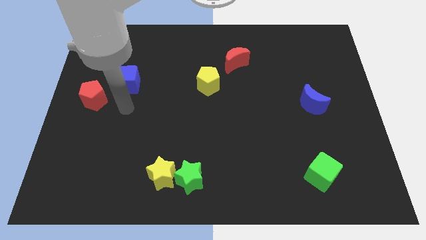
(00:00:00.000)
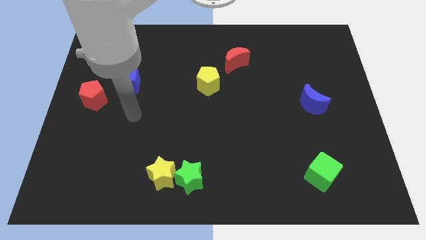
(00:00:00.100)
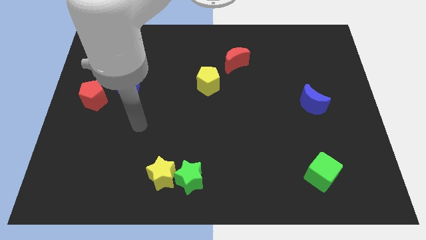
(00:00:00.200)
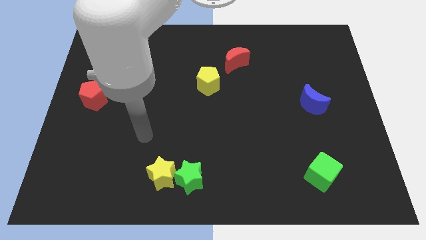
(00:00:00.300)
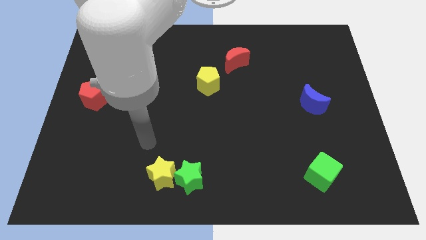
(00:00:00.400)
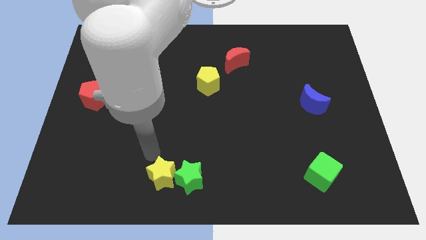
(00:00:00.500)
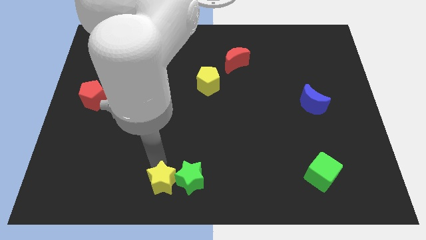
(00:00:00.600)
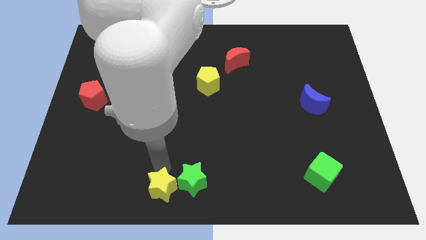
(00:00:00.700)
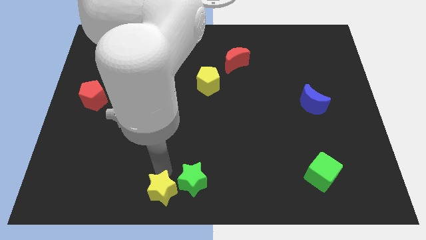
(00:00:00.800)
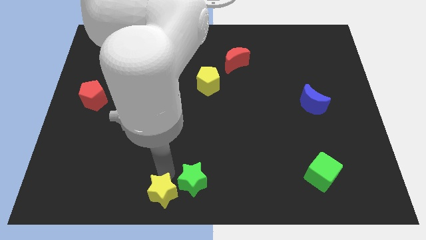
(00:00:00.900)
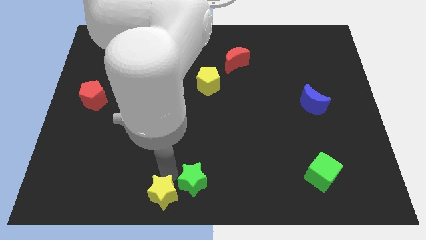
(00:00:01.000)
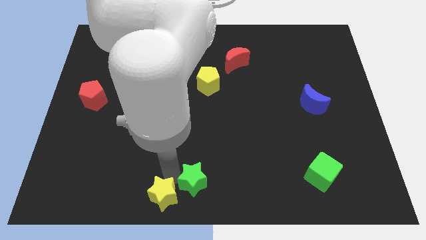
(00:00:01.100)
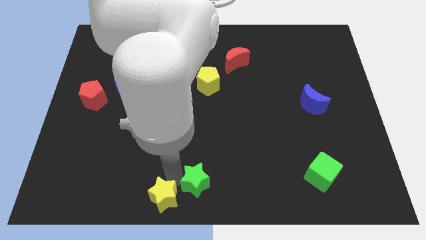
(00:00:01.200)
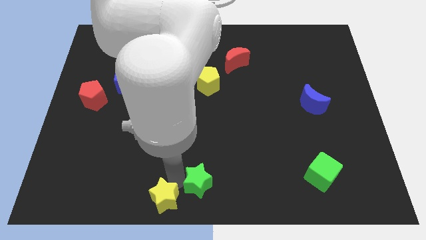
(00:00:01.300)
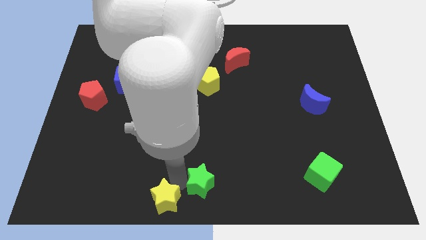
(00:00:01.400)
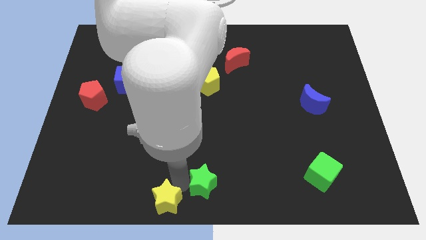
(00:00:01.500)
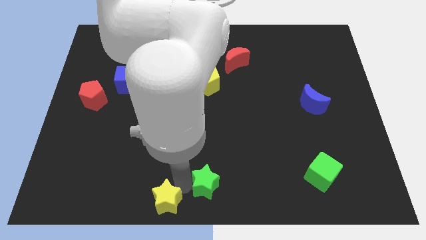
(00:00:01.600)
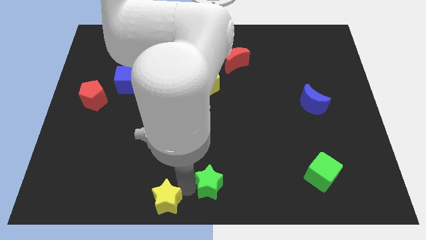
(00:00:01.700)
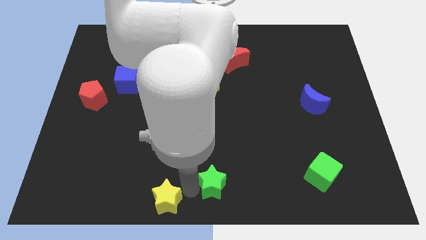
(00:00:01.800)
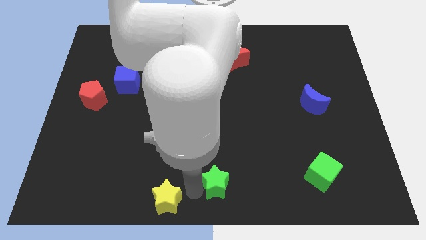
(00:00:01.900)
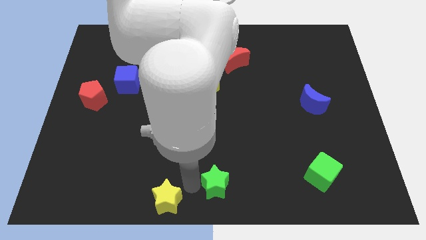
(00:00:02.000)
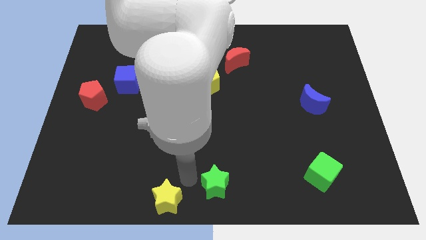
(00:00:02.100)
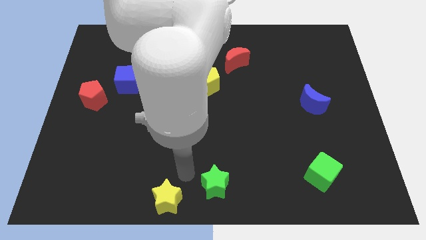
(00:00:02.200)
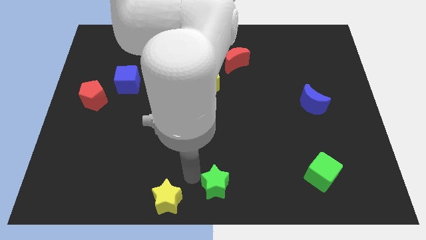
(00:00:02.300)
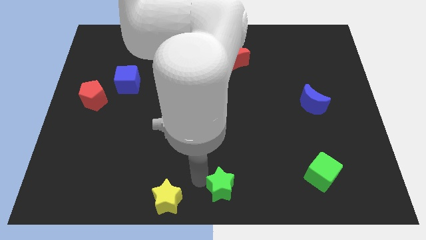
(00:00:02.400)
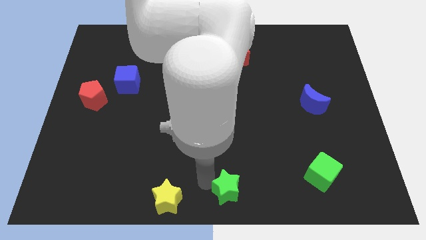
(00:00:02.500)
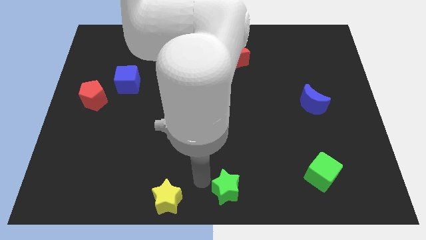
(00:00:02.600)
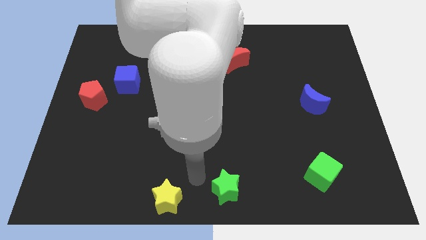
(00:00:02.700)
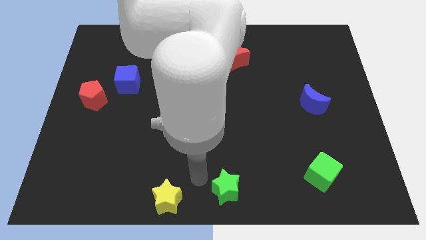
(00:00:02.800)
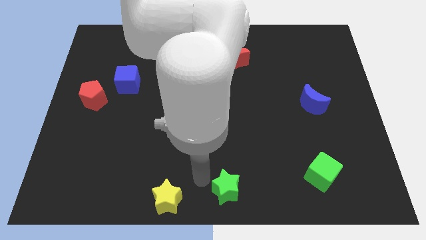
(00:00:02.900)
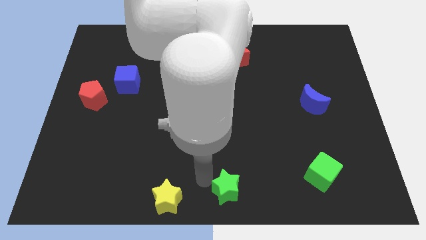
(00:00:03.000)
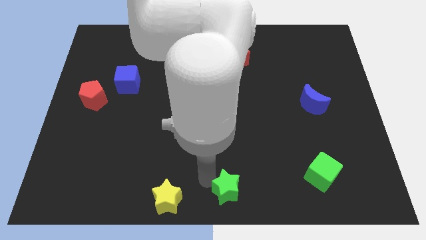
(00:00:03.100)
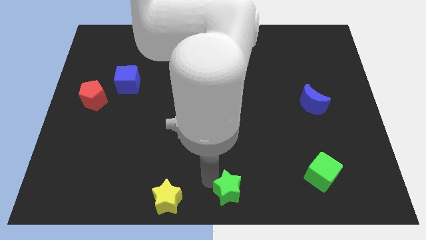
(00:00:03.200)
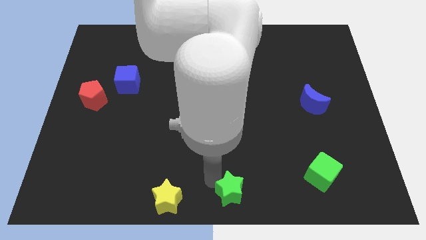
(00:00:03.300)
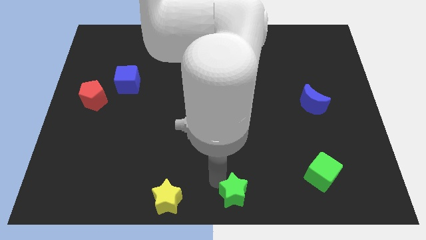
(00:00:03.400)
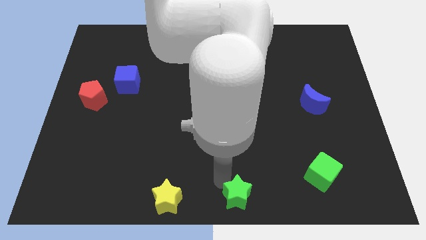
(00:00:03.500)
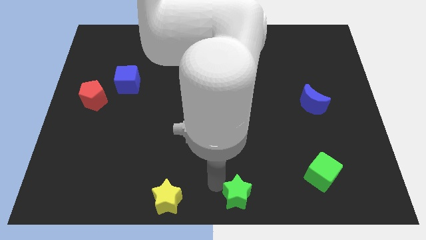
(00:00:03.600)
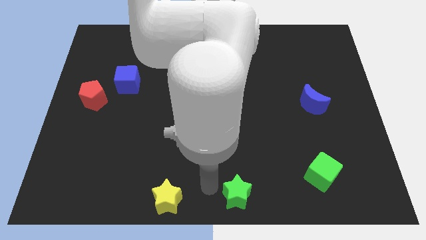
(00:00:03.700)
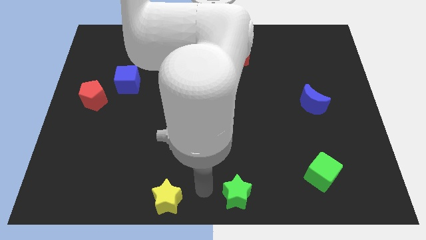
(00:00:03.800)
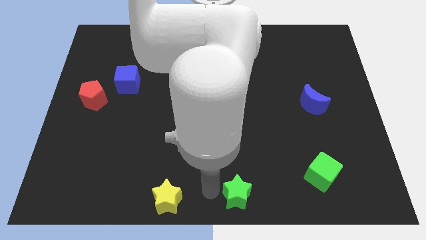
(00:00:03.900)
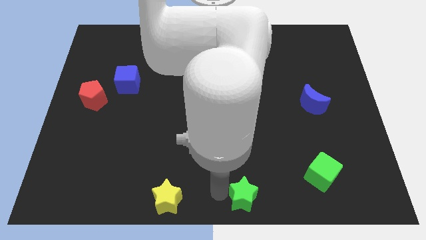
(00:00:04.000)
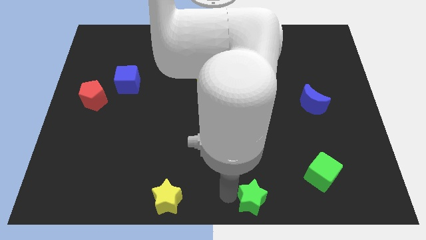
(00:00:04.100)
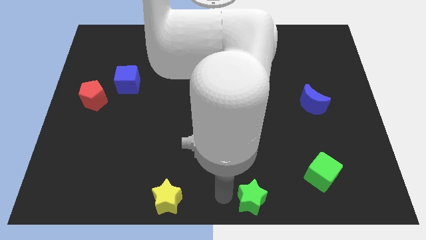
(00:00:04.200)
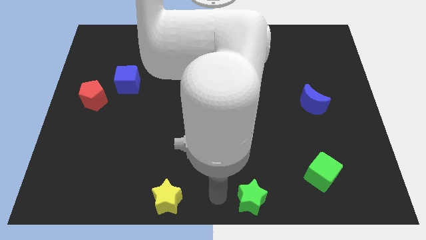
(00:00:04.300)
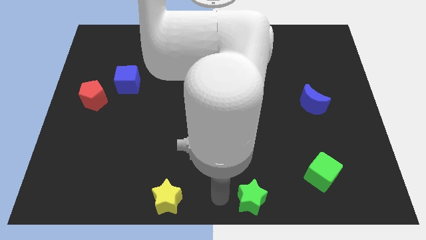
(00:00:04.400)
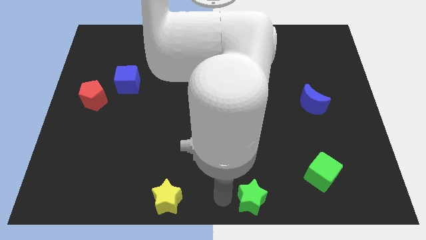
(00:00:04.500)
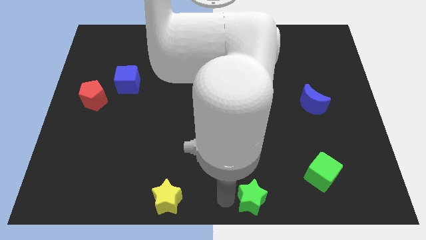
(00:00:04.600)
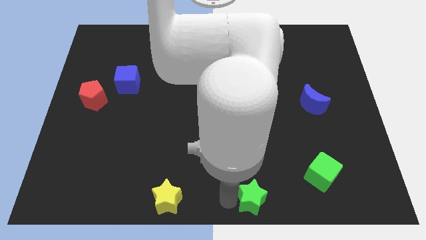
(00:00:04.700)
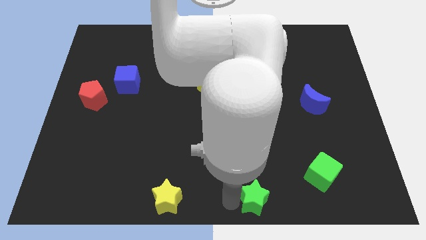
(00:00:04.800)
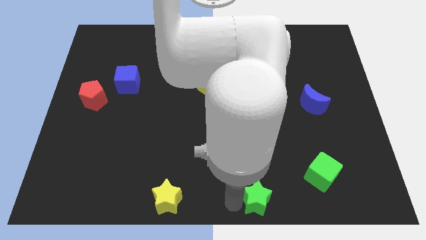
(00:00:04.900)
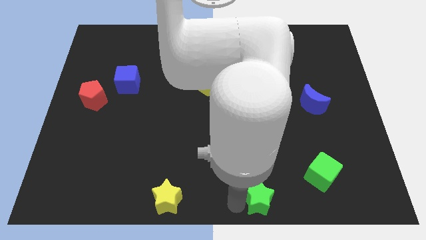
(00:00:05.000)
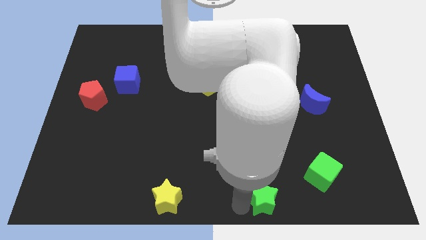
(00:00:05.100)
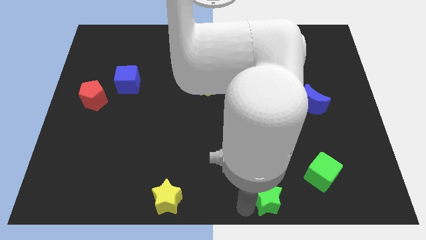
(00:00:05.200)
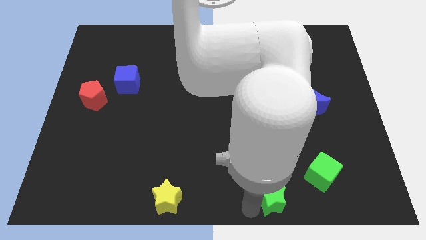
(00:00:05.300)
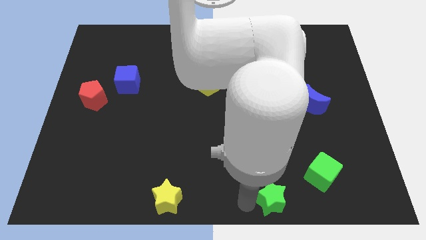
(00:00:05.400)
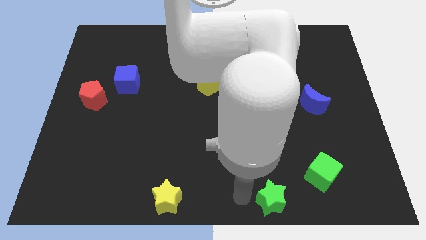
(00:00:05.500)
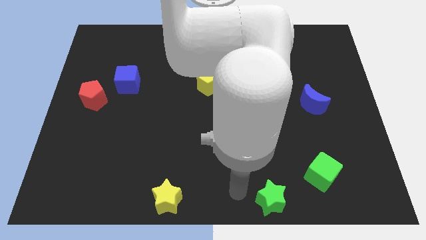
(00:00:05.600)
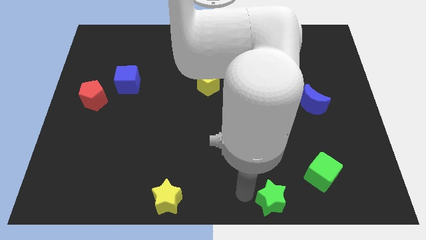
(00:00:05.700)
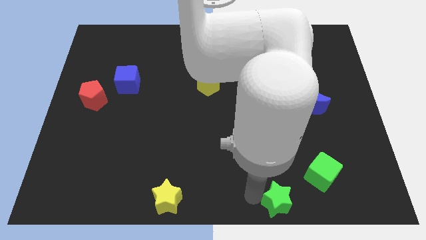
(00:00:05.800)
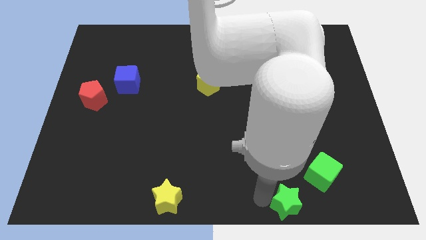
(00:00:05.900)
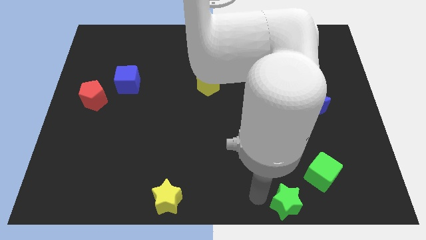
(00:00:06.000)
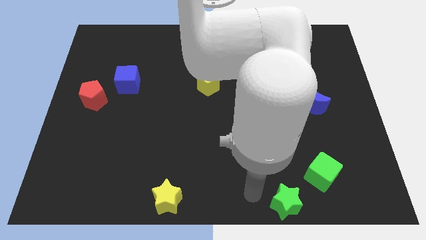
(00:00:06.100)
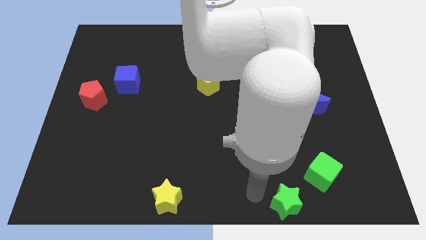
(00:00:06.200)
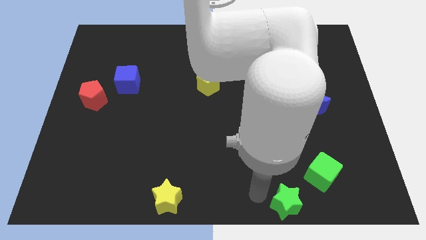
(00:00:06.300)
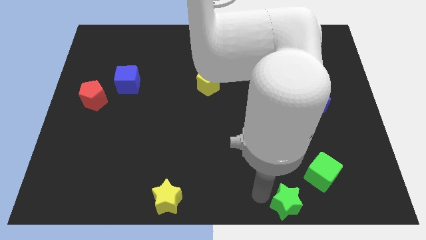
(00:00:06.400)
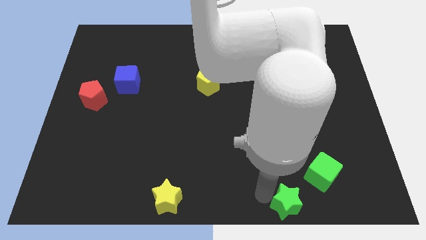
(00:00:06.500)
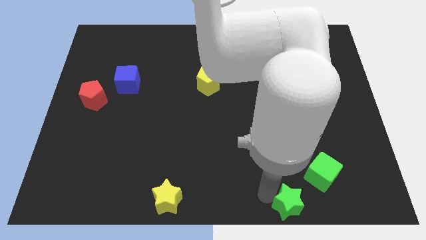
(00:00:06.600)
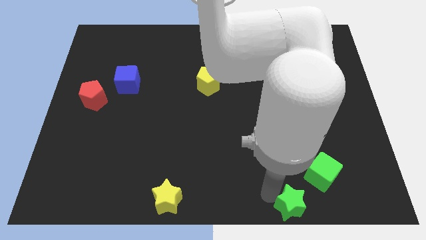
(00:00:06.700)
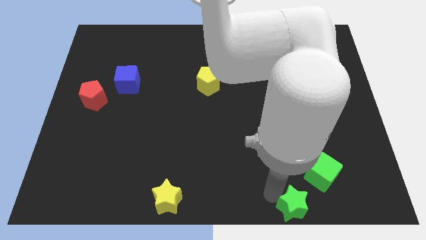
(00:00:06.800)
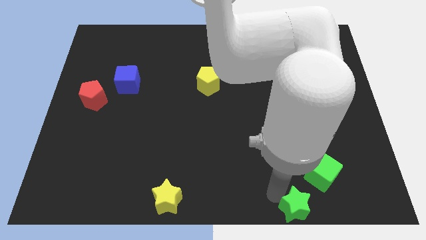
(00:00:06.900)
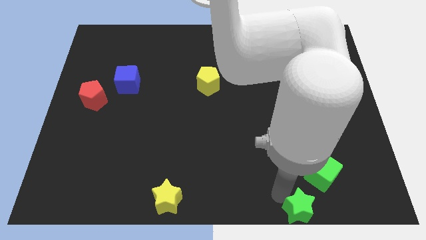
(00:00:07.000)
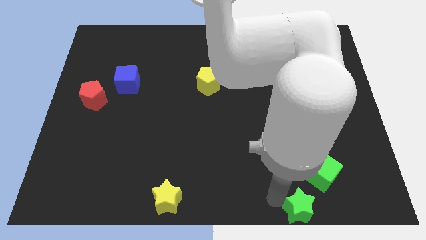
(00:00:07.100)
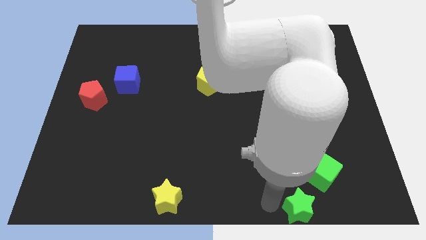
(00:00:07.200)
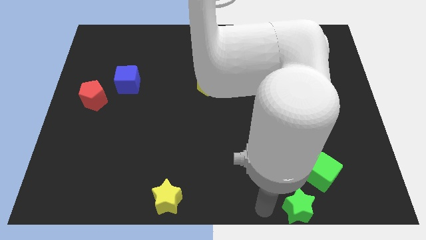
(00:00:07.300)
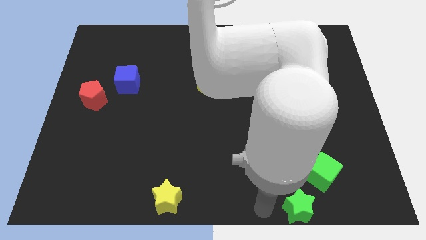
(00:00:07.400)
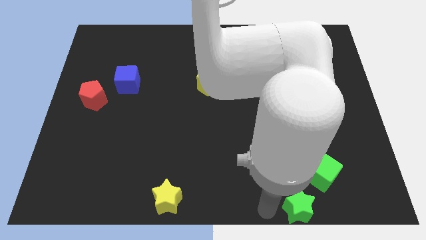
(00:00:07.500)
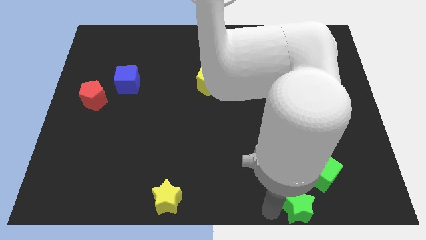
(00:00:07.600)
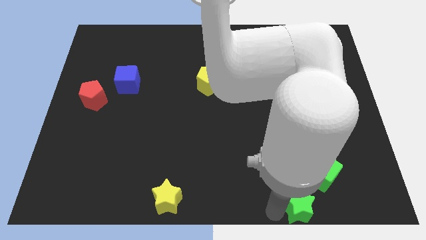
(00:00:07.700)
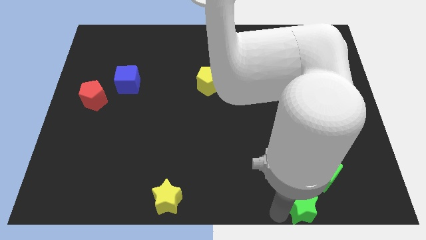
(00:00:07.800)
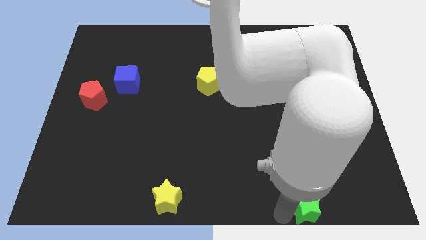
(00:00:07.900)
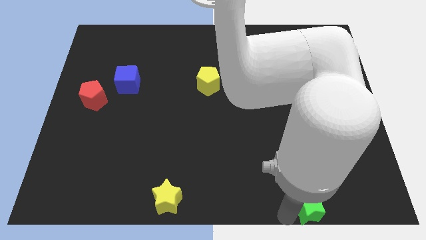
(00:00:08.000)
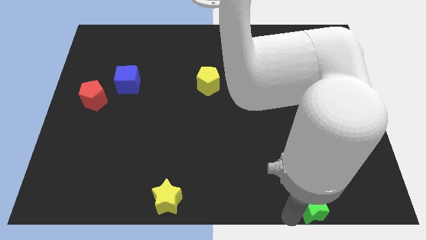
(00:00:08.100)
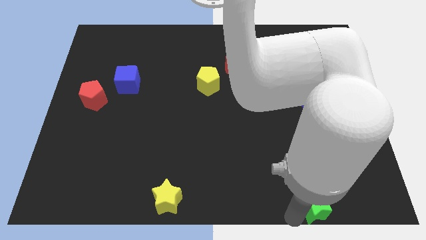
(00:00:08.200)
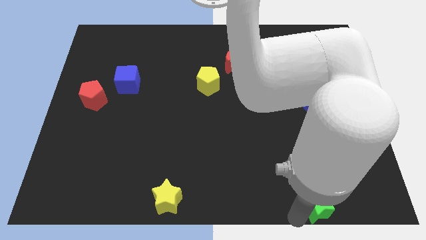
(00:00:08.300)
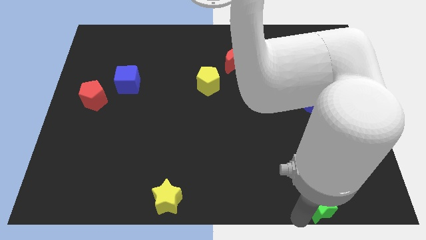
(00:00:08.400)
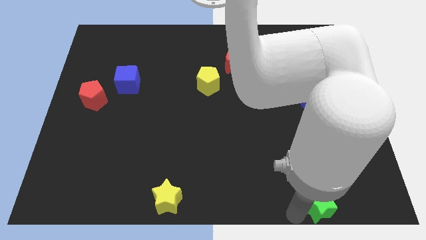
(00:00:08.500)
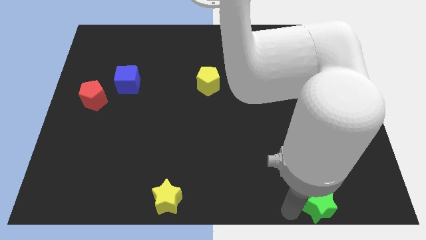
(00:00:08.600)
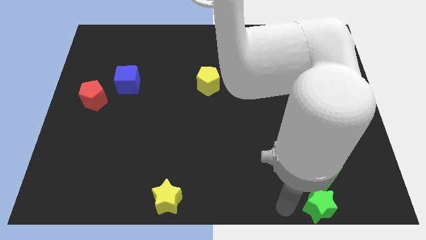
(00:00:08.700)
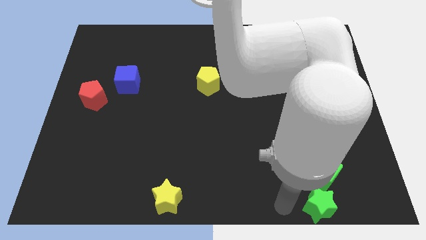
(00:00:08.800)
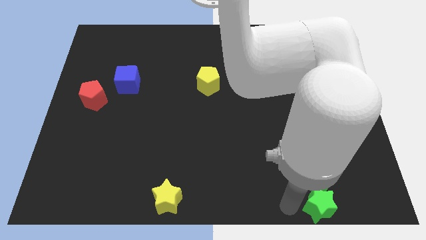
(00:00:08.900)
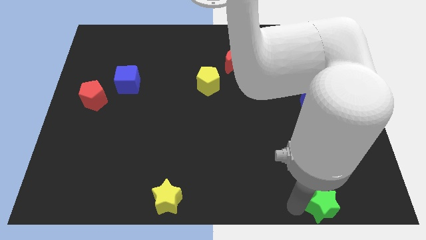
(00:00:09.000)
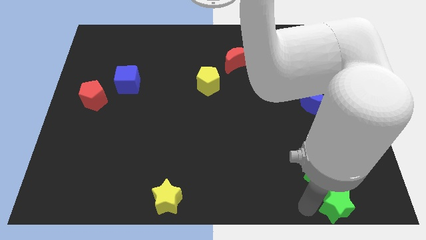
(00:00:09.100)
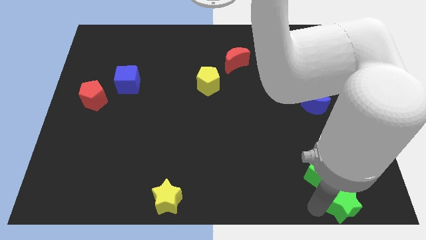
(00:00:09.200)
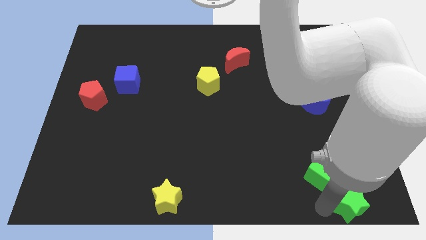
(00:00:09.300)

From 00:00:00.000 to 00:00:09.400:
push the green star to the lower right corner
